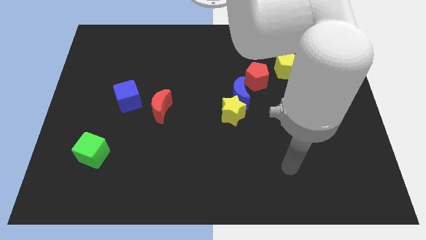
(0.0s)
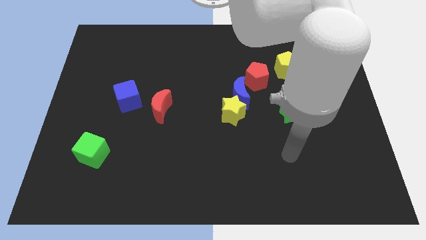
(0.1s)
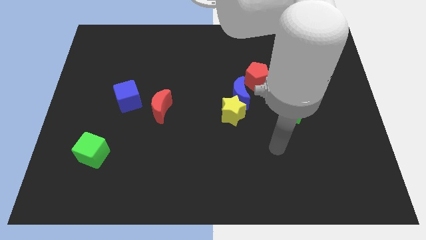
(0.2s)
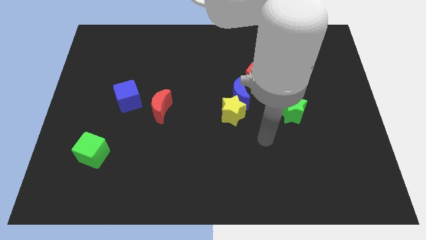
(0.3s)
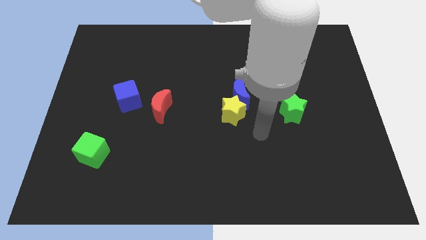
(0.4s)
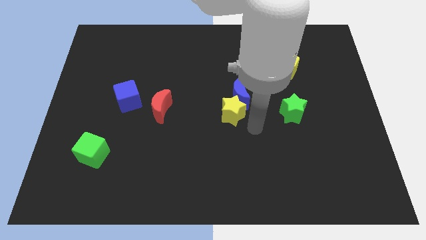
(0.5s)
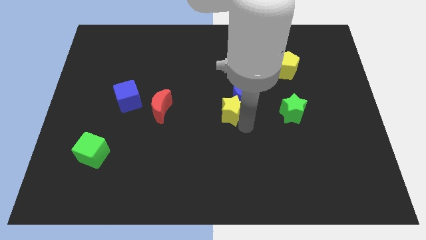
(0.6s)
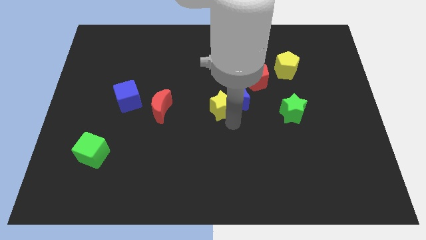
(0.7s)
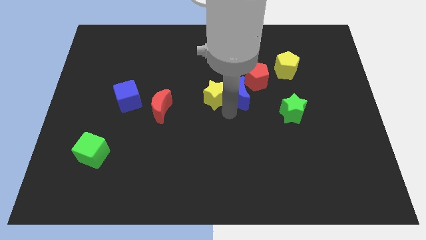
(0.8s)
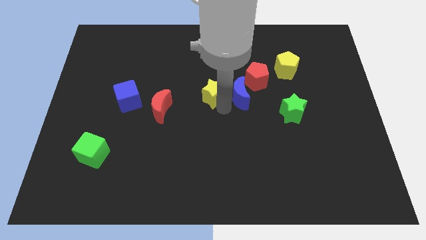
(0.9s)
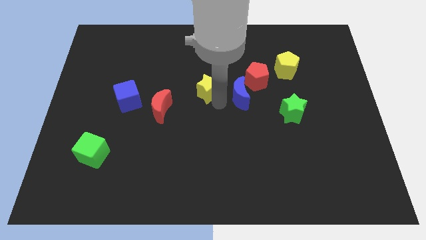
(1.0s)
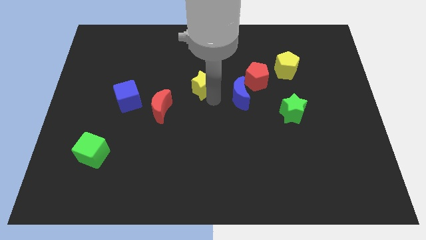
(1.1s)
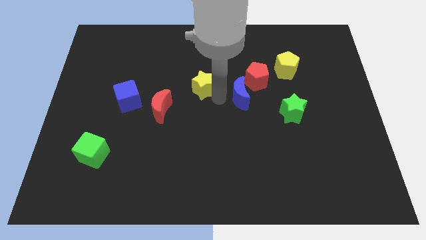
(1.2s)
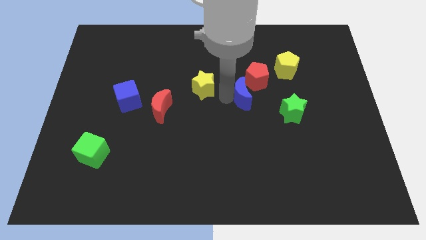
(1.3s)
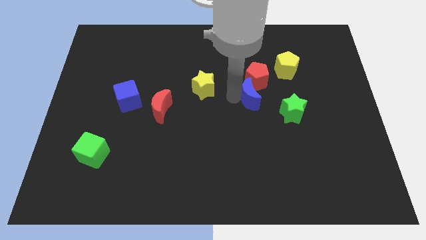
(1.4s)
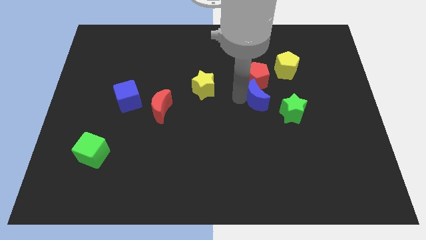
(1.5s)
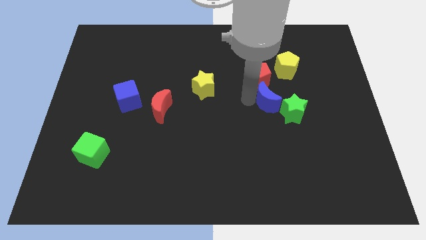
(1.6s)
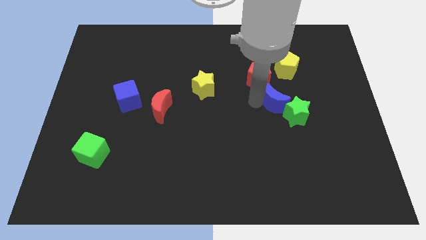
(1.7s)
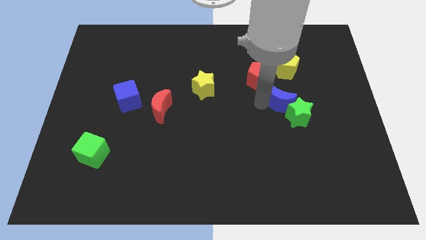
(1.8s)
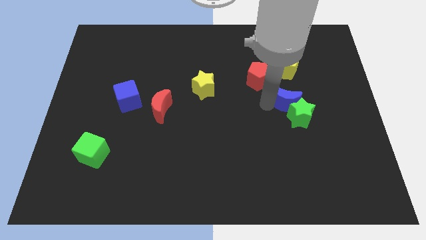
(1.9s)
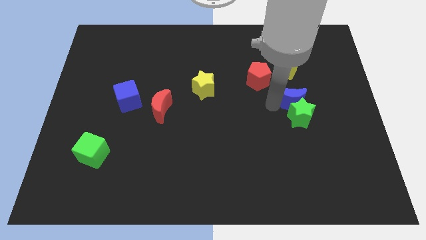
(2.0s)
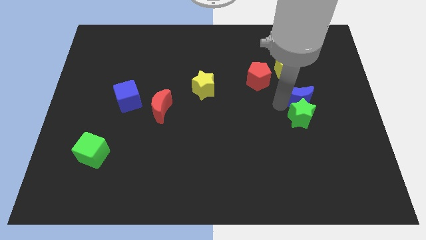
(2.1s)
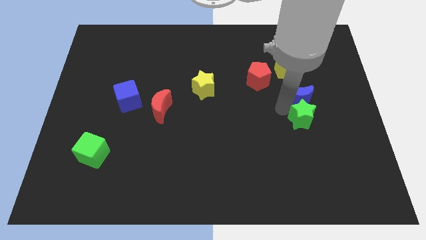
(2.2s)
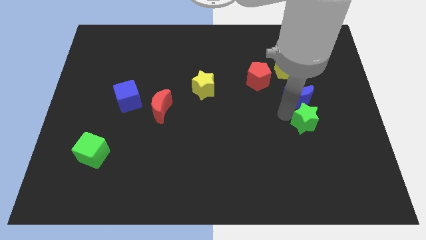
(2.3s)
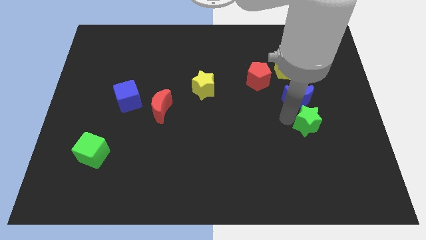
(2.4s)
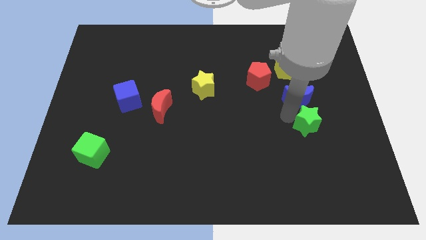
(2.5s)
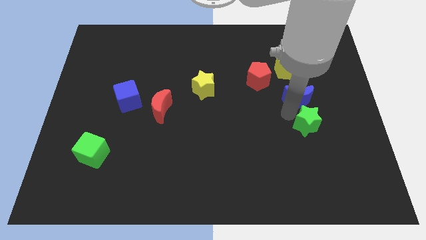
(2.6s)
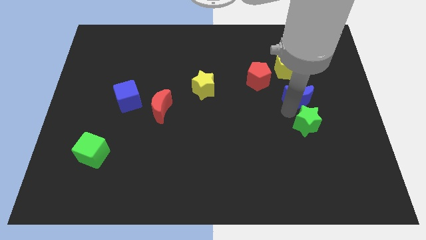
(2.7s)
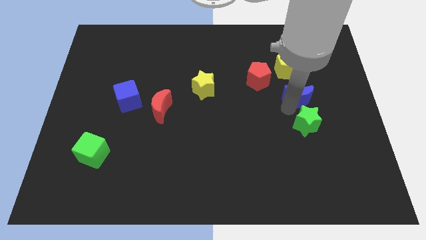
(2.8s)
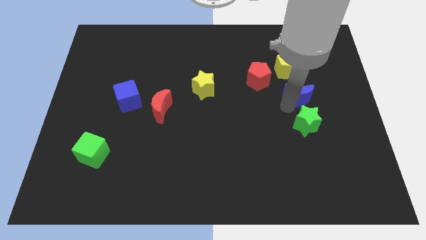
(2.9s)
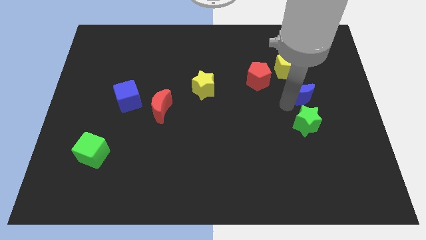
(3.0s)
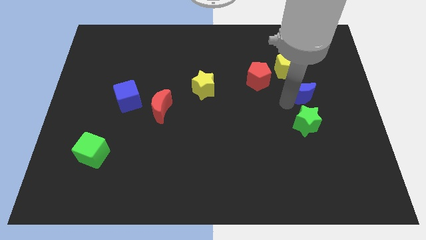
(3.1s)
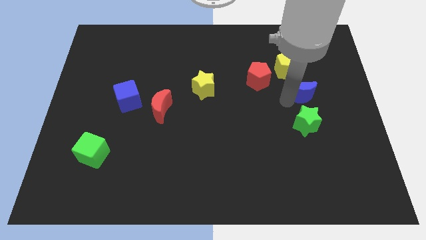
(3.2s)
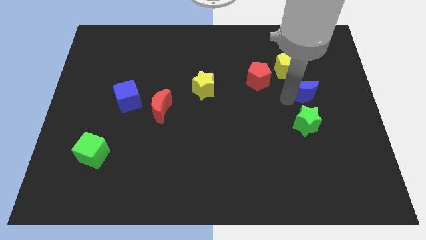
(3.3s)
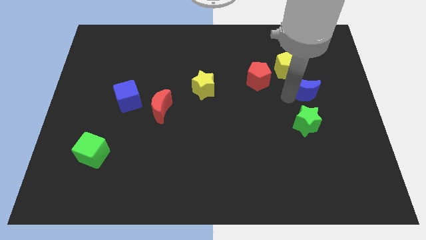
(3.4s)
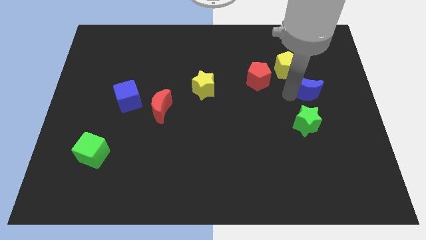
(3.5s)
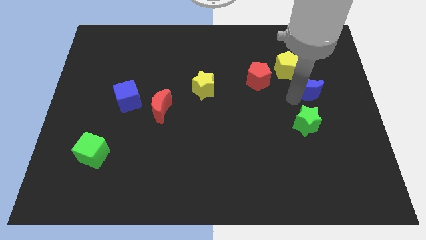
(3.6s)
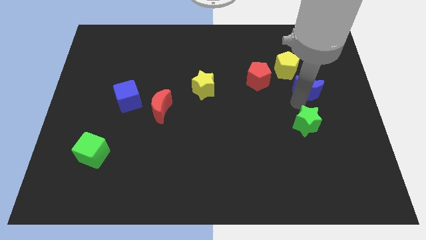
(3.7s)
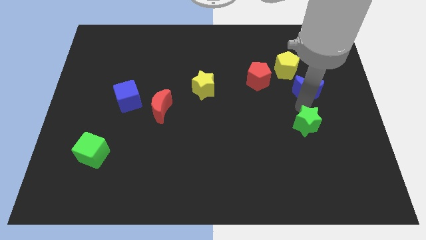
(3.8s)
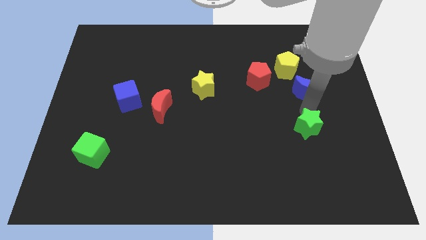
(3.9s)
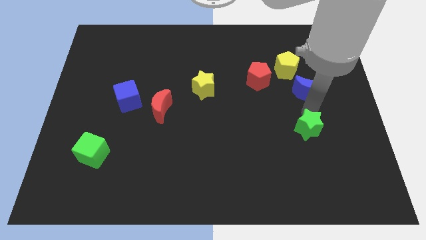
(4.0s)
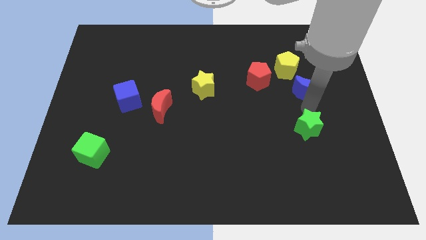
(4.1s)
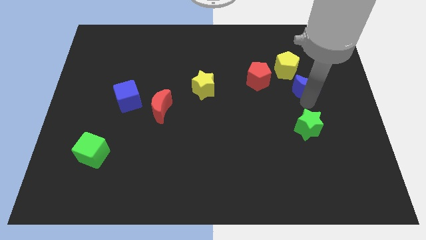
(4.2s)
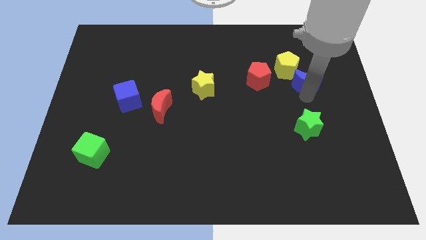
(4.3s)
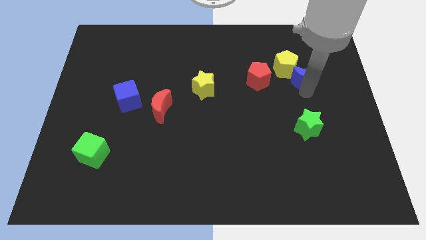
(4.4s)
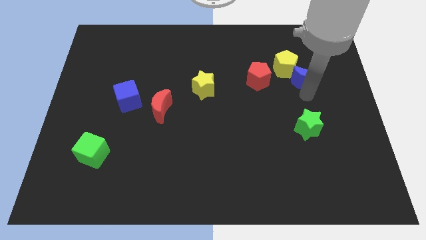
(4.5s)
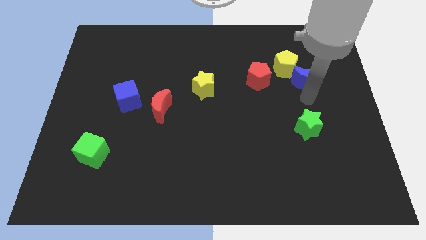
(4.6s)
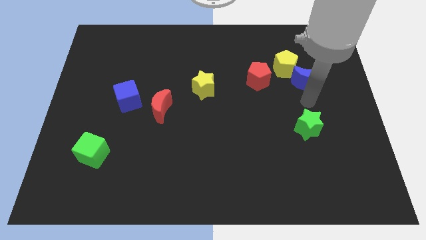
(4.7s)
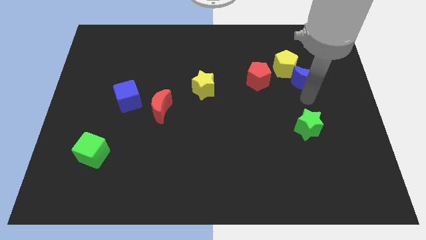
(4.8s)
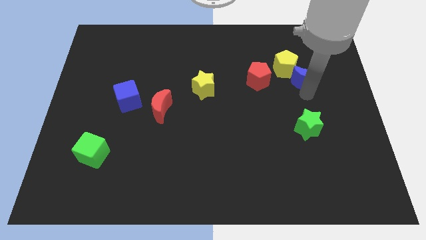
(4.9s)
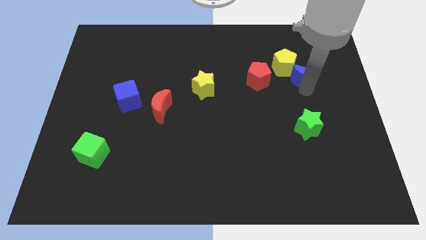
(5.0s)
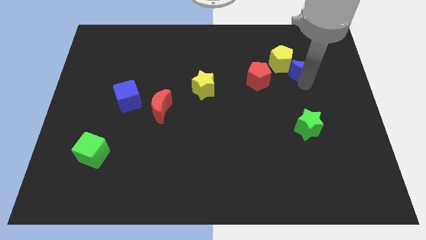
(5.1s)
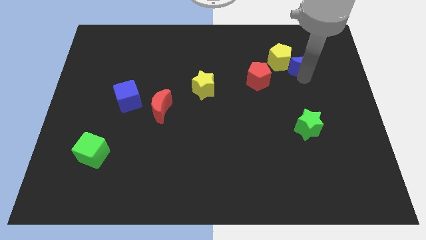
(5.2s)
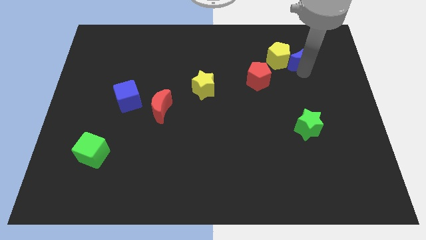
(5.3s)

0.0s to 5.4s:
put the blue moon to the top right side of the yellow pentagon

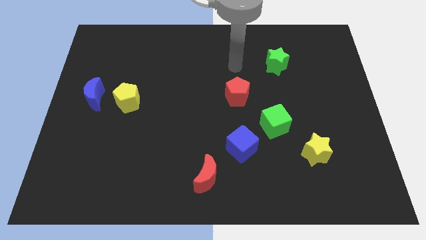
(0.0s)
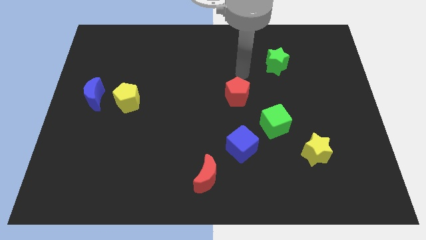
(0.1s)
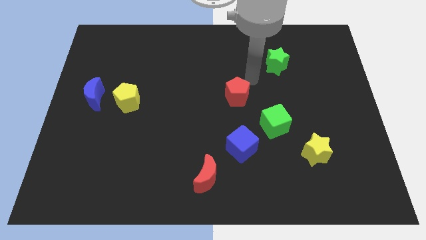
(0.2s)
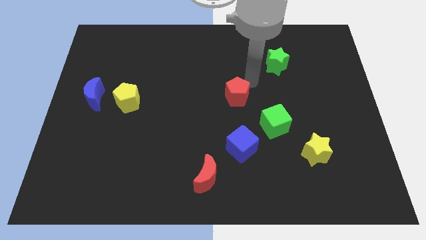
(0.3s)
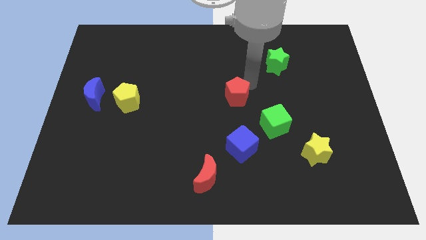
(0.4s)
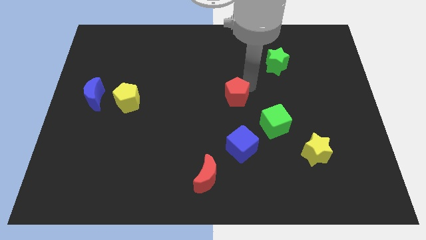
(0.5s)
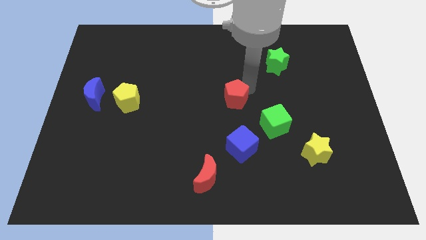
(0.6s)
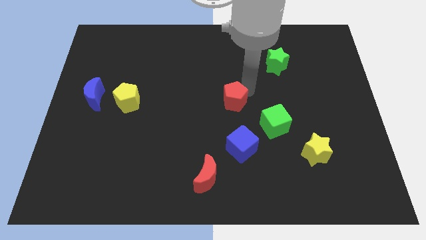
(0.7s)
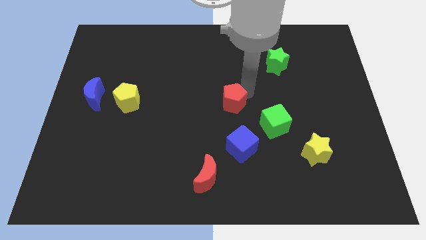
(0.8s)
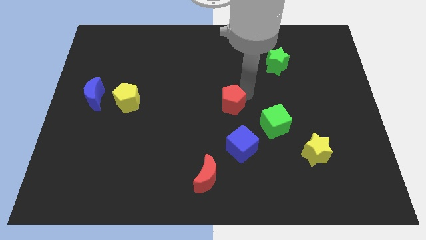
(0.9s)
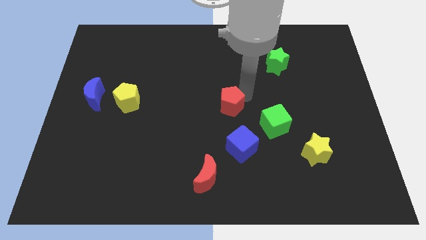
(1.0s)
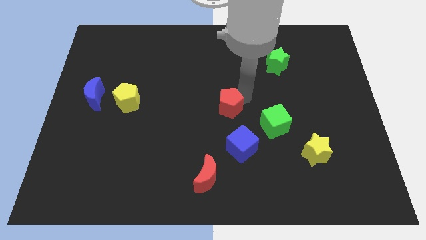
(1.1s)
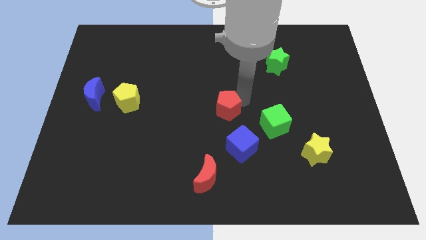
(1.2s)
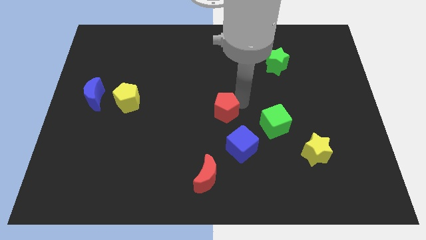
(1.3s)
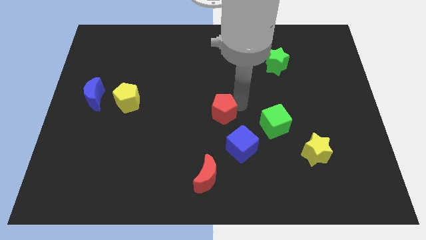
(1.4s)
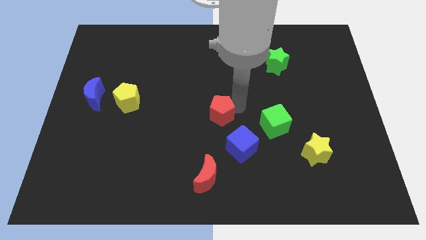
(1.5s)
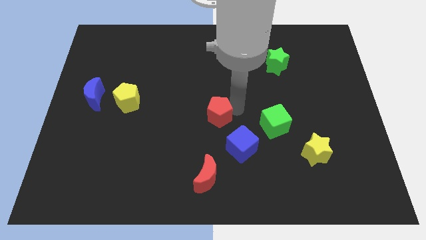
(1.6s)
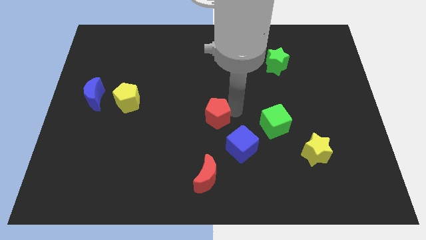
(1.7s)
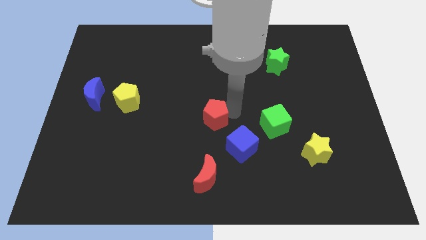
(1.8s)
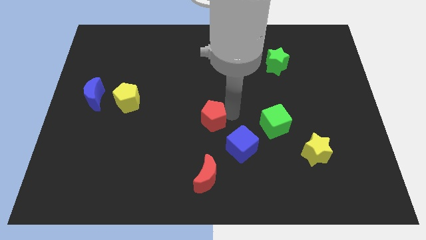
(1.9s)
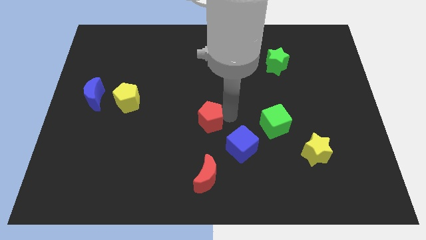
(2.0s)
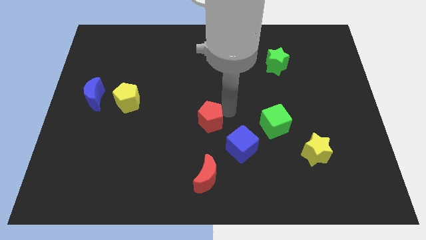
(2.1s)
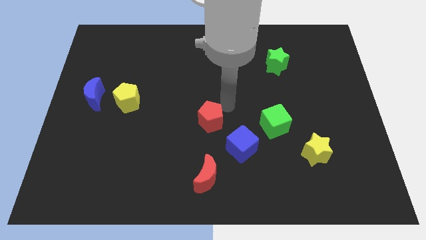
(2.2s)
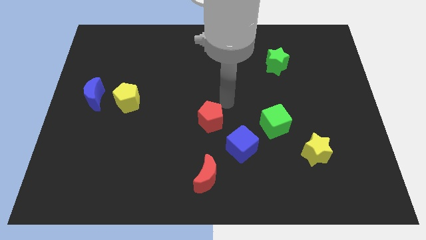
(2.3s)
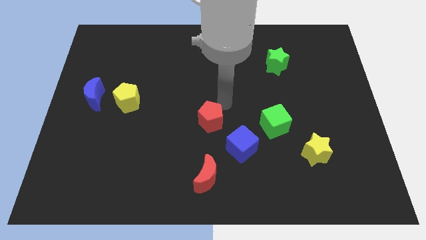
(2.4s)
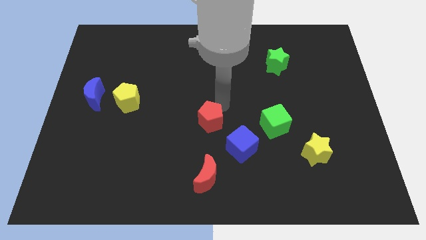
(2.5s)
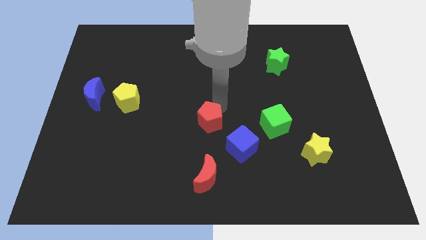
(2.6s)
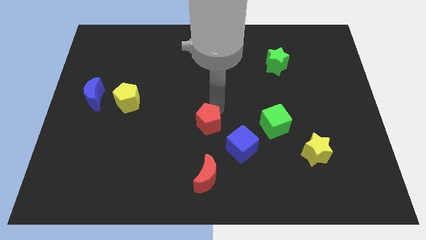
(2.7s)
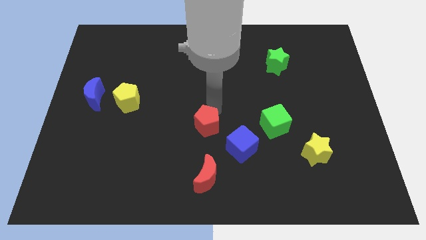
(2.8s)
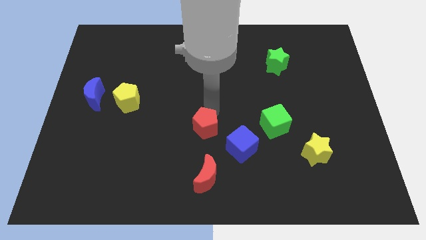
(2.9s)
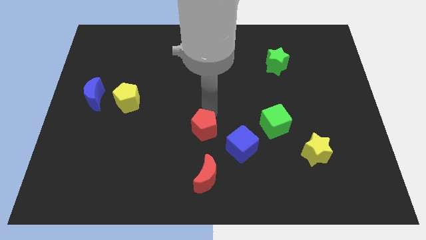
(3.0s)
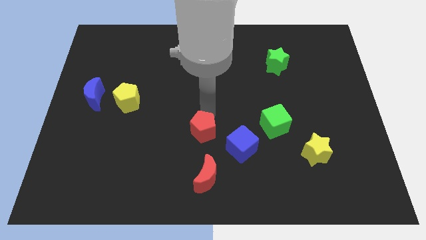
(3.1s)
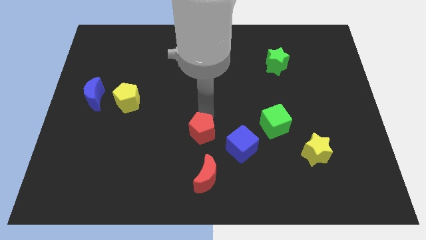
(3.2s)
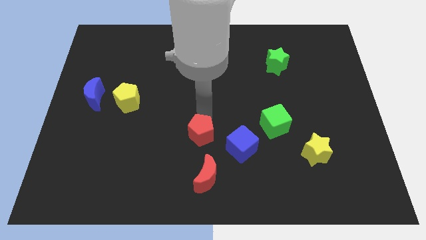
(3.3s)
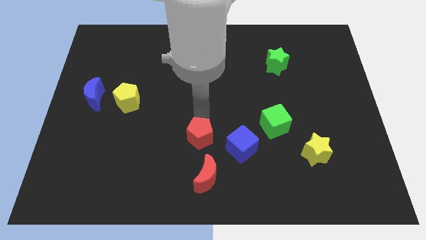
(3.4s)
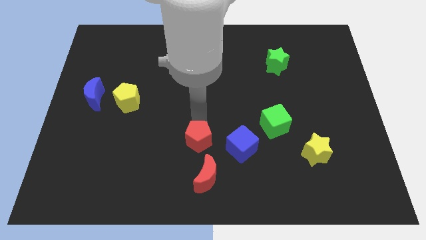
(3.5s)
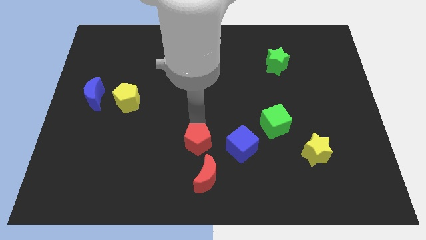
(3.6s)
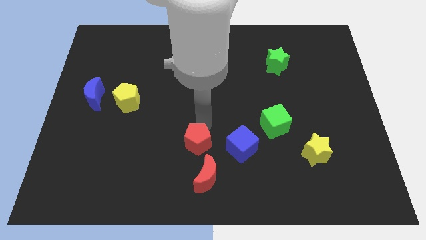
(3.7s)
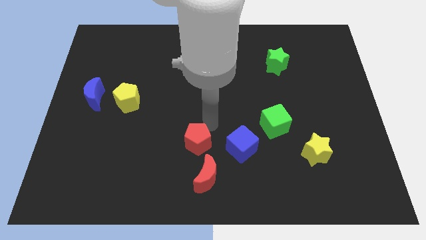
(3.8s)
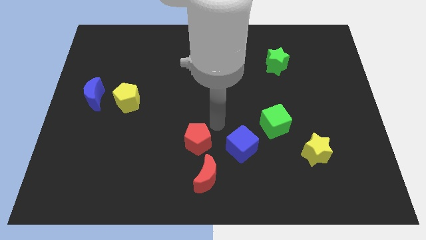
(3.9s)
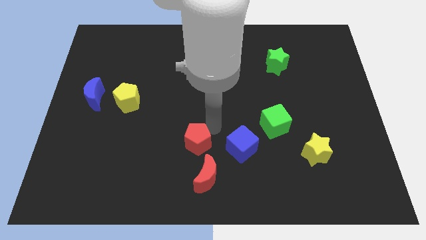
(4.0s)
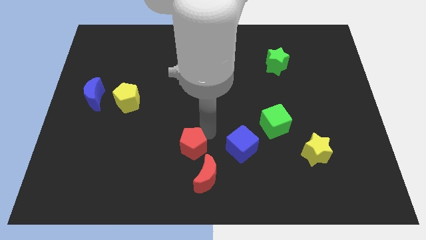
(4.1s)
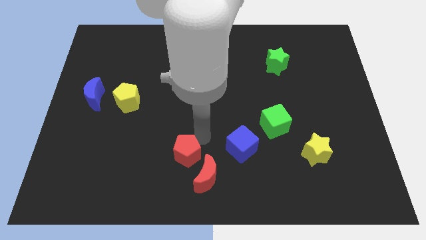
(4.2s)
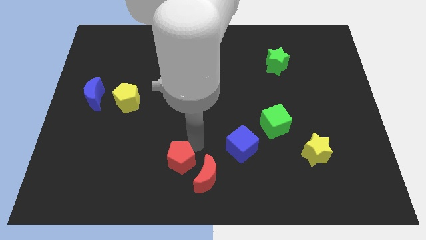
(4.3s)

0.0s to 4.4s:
slide the red pentagon to the left side of the red moon
